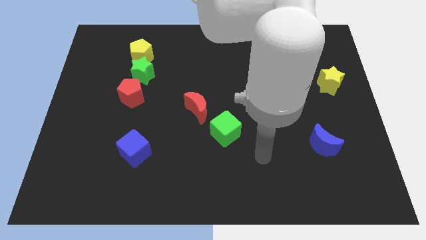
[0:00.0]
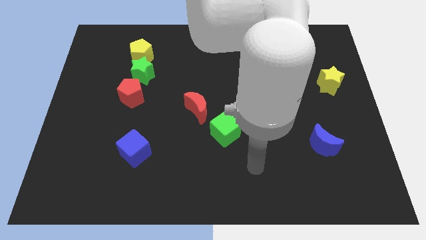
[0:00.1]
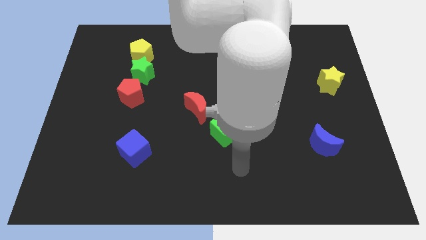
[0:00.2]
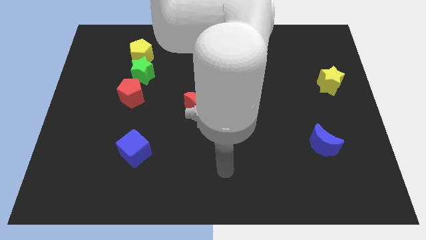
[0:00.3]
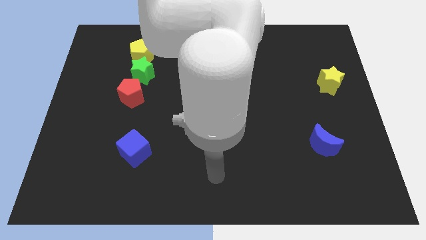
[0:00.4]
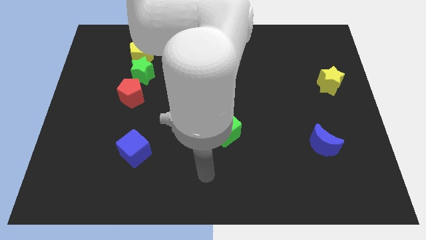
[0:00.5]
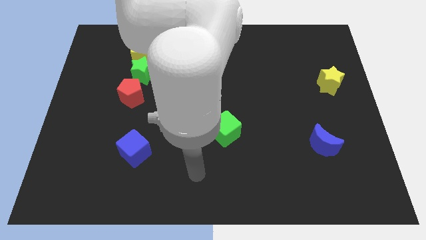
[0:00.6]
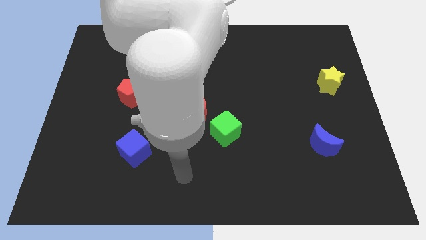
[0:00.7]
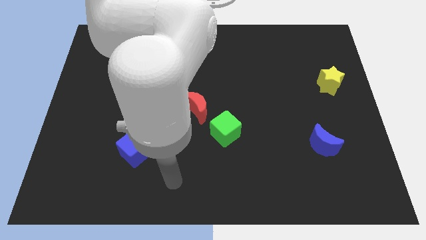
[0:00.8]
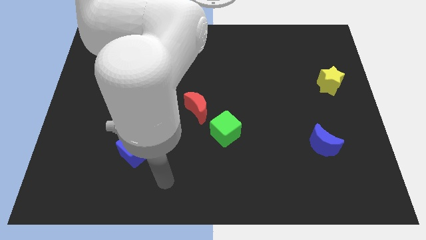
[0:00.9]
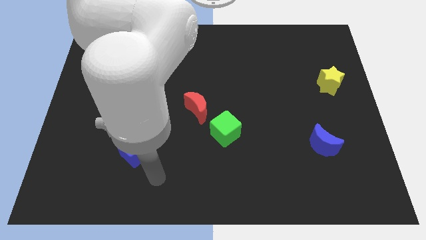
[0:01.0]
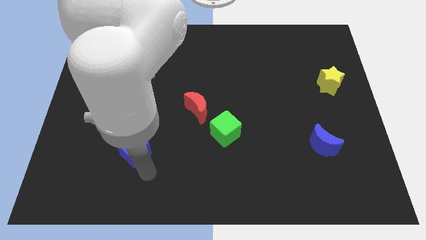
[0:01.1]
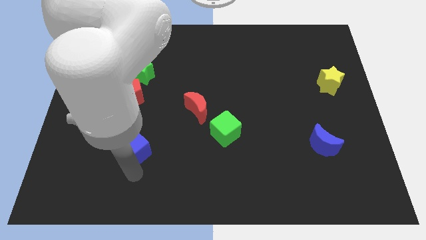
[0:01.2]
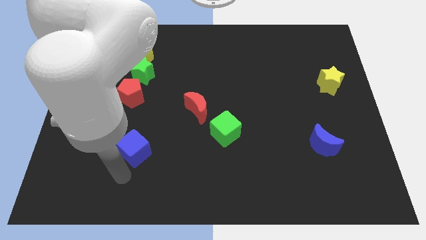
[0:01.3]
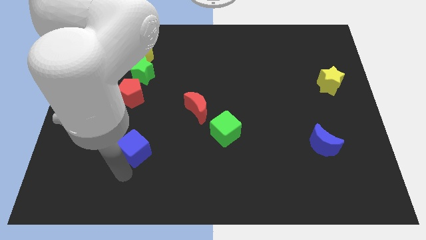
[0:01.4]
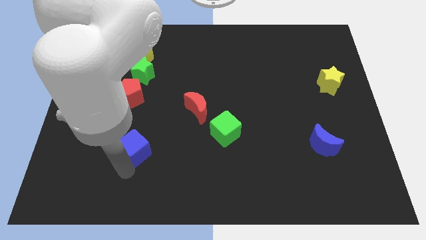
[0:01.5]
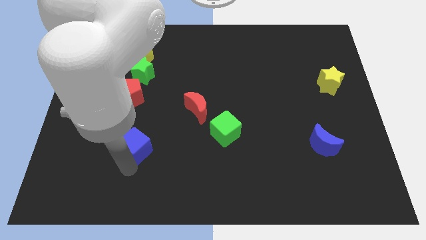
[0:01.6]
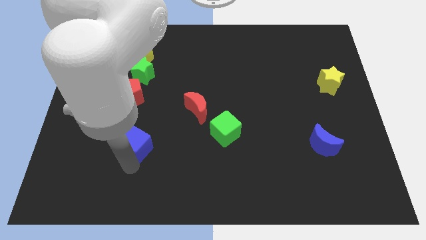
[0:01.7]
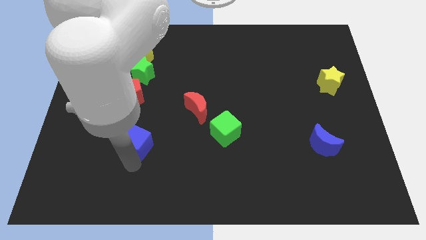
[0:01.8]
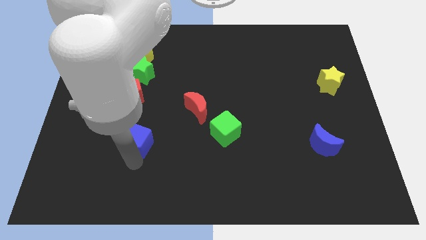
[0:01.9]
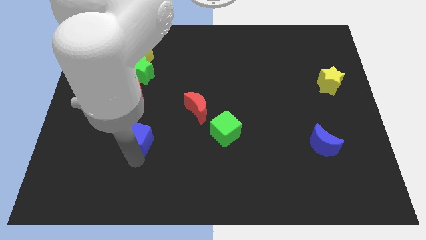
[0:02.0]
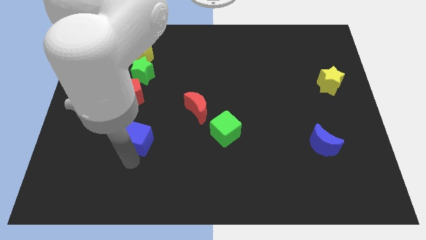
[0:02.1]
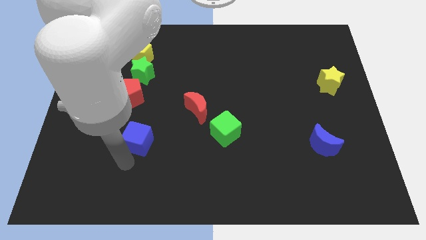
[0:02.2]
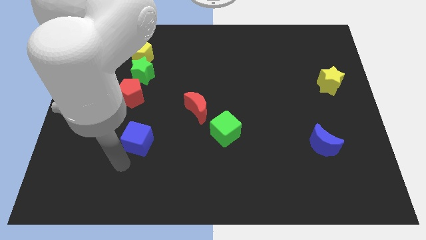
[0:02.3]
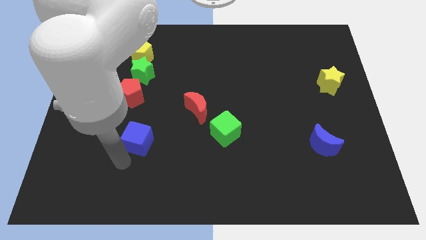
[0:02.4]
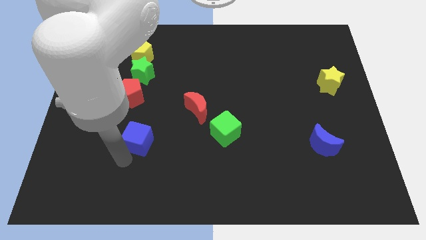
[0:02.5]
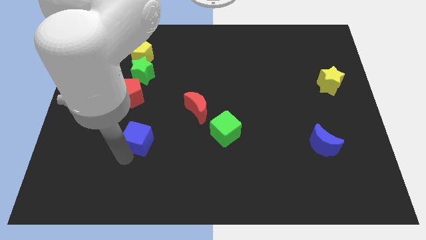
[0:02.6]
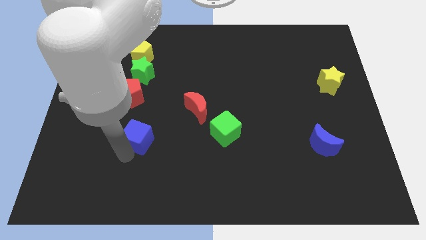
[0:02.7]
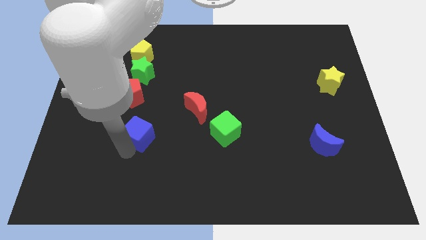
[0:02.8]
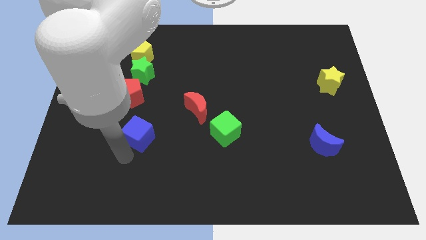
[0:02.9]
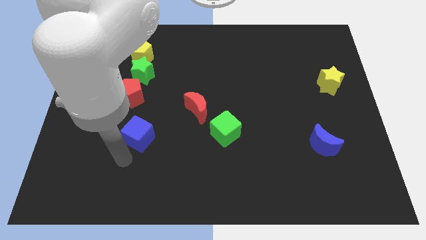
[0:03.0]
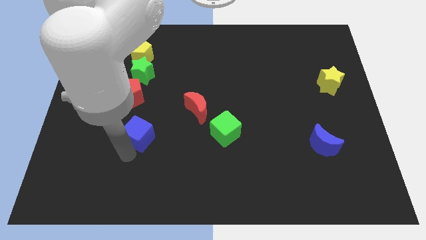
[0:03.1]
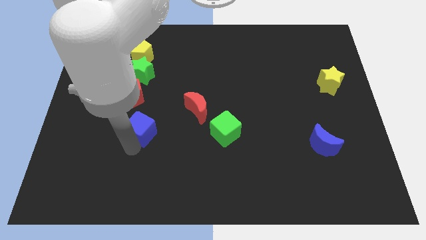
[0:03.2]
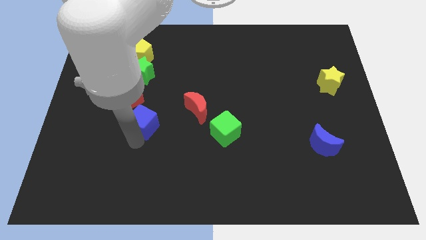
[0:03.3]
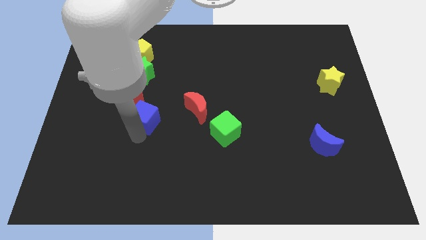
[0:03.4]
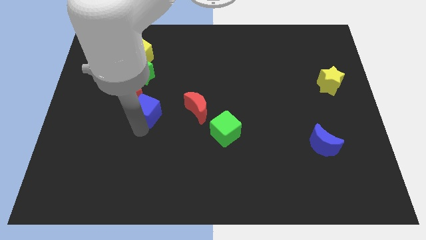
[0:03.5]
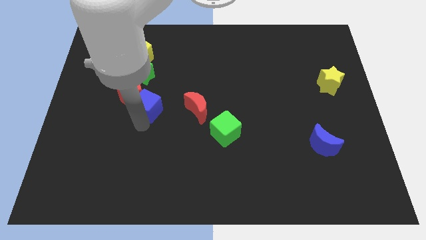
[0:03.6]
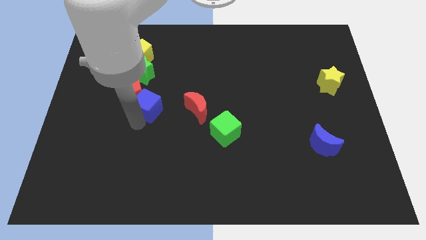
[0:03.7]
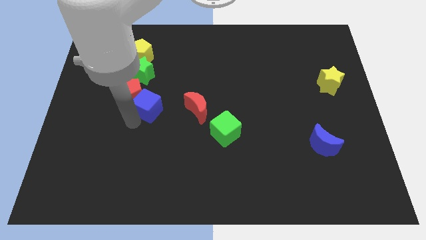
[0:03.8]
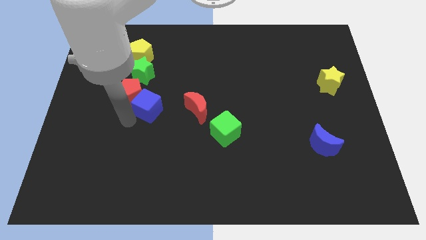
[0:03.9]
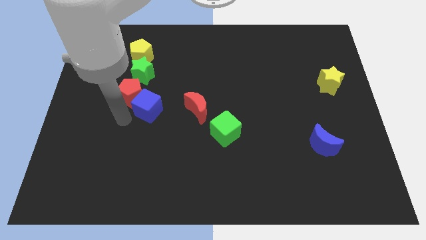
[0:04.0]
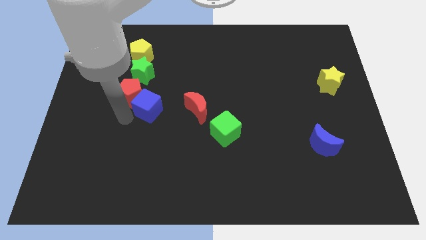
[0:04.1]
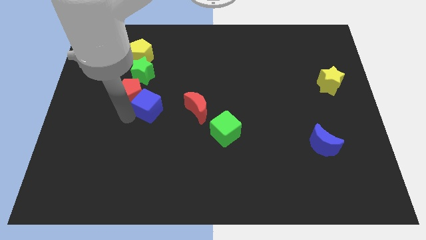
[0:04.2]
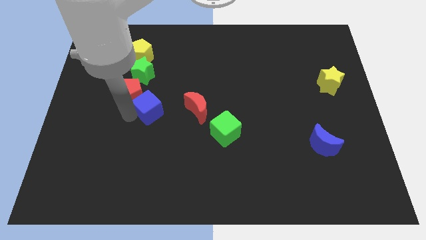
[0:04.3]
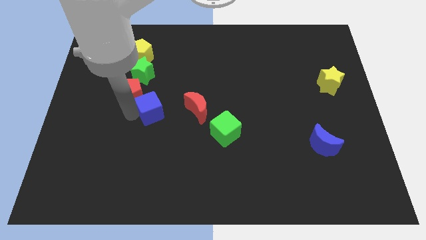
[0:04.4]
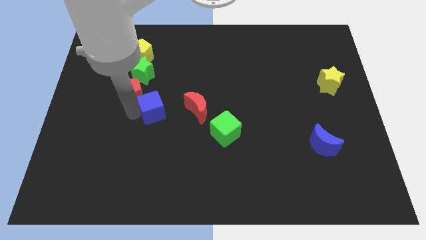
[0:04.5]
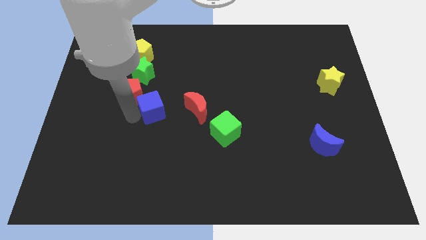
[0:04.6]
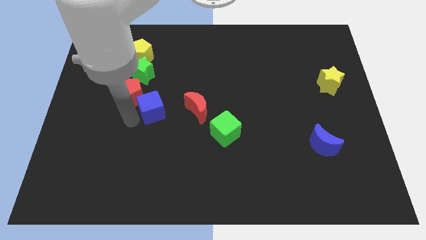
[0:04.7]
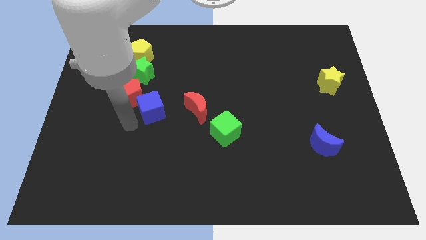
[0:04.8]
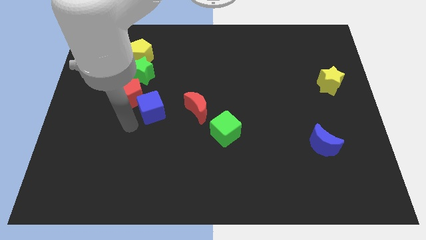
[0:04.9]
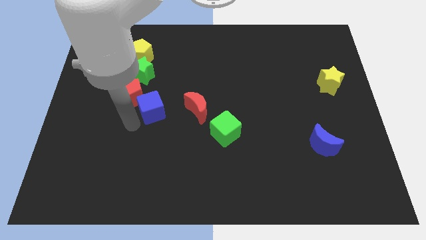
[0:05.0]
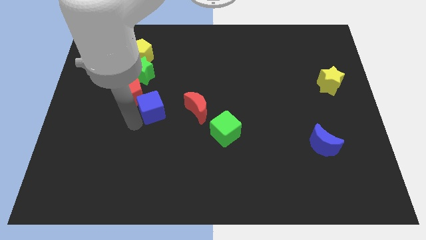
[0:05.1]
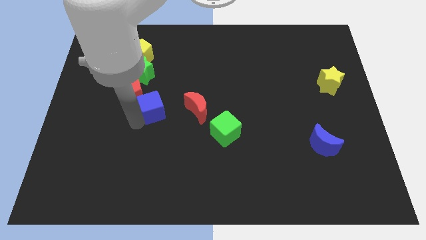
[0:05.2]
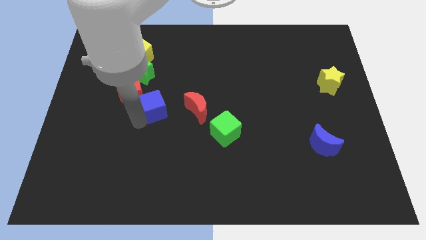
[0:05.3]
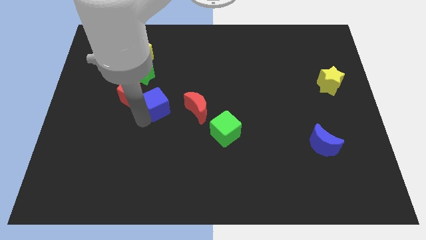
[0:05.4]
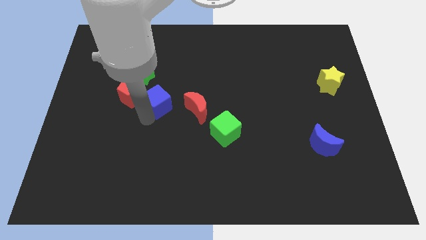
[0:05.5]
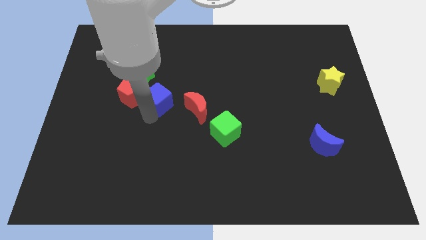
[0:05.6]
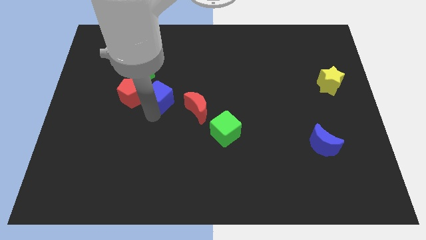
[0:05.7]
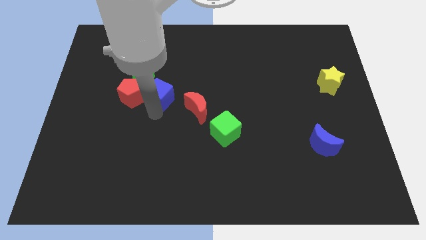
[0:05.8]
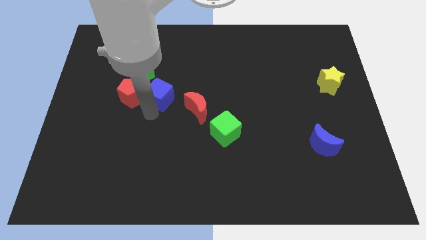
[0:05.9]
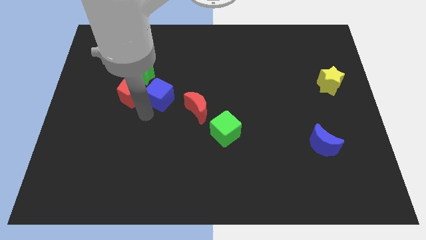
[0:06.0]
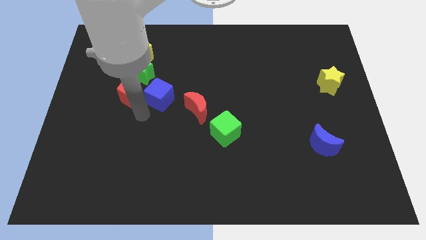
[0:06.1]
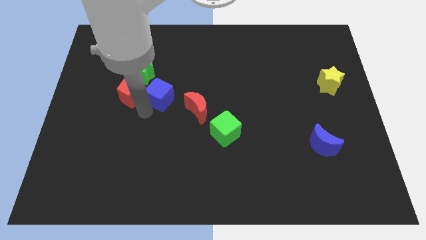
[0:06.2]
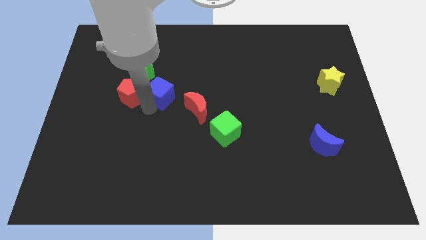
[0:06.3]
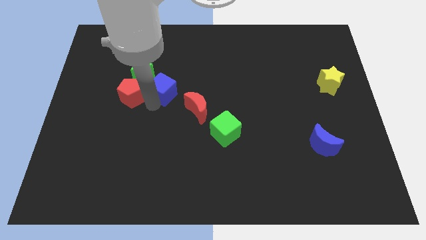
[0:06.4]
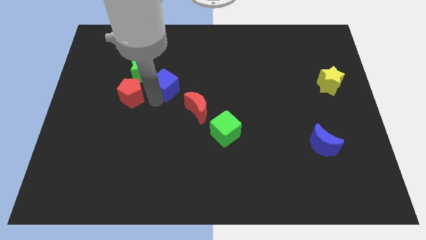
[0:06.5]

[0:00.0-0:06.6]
put the blue cube to the right side of the green star
